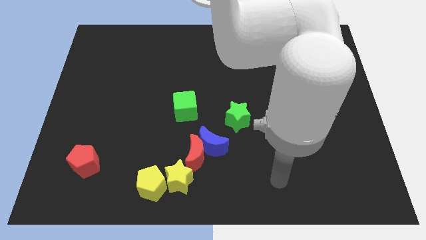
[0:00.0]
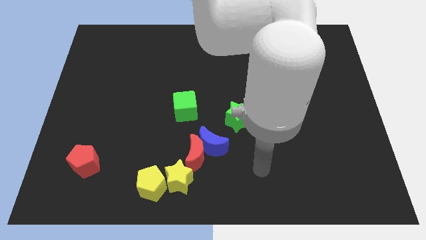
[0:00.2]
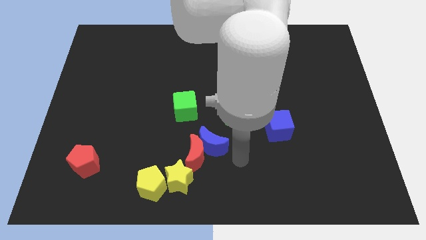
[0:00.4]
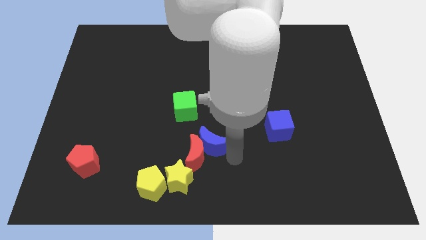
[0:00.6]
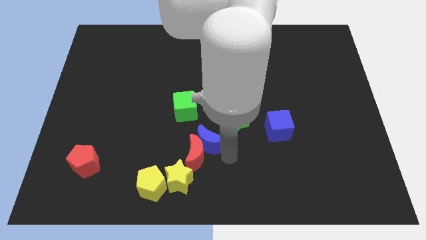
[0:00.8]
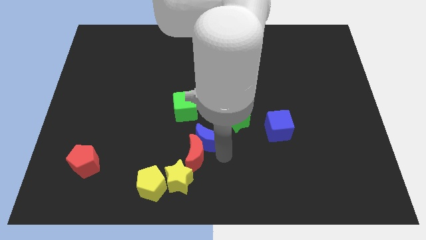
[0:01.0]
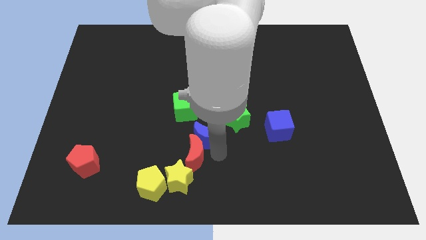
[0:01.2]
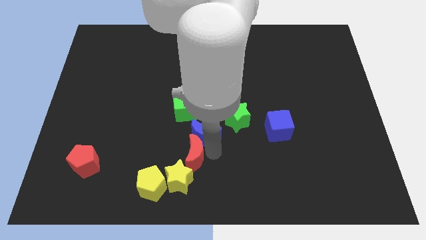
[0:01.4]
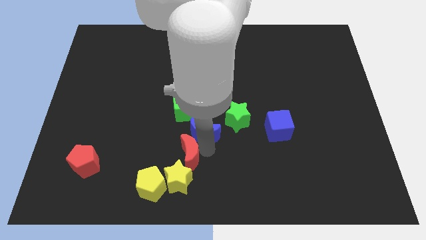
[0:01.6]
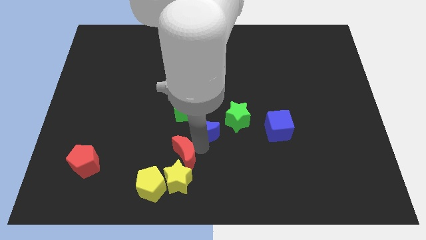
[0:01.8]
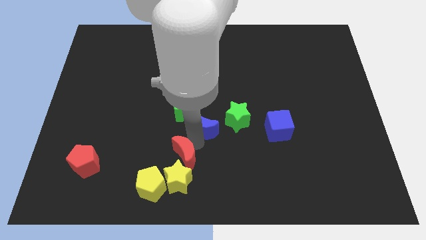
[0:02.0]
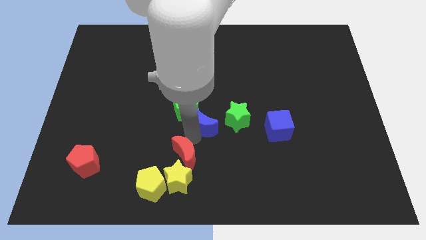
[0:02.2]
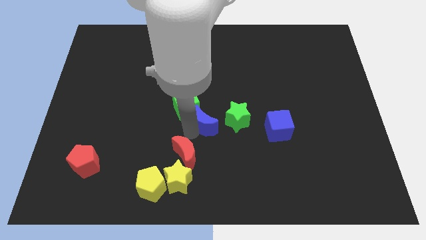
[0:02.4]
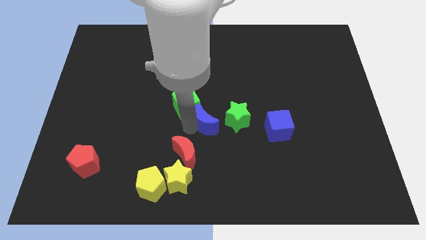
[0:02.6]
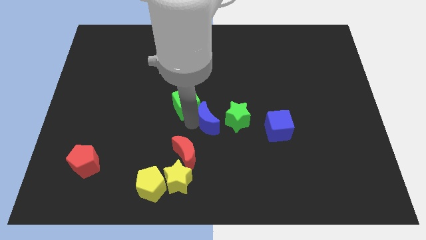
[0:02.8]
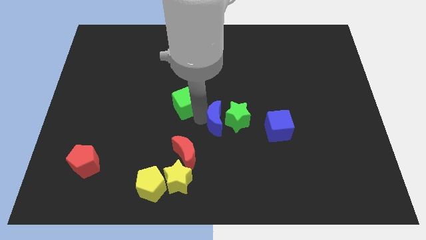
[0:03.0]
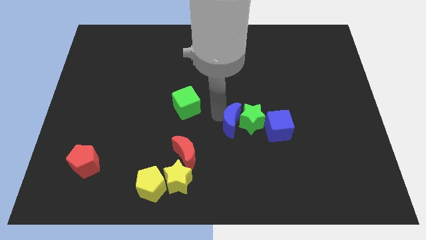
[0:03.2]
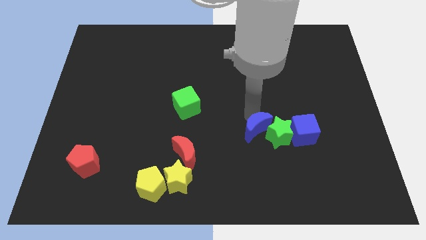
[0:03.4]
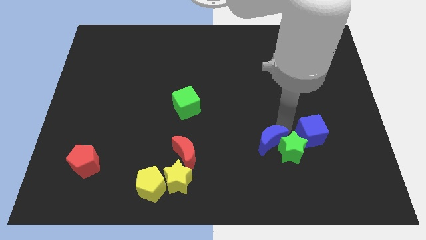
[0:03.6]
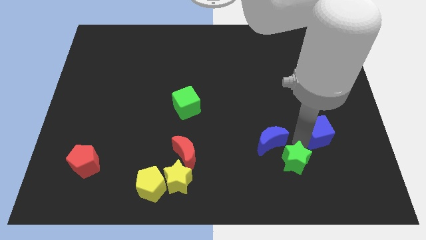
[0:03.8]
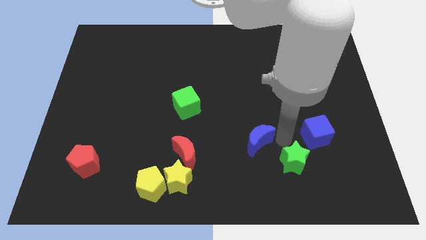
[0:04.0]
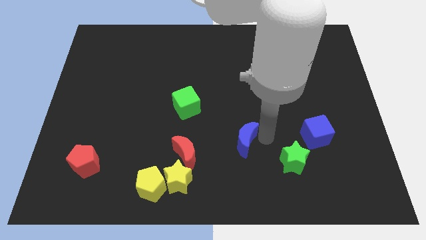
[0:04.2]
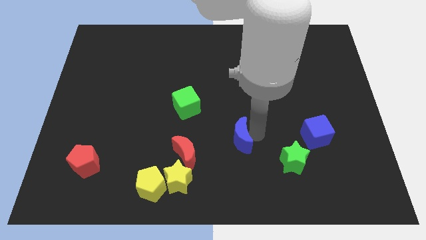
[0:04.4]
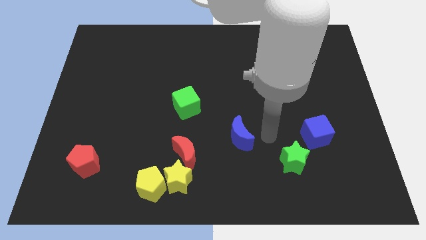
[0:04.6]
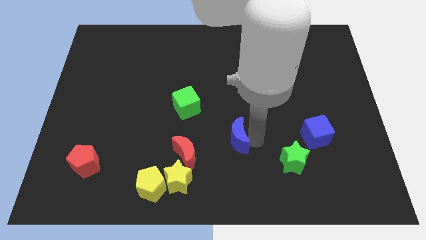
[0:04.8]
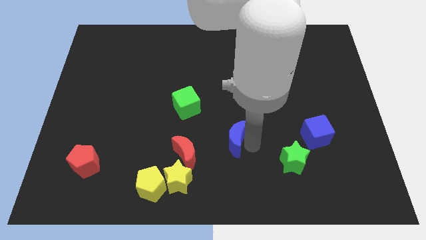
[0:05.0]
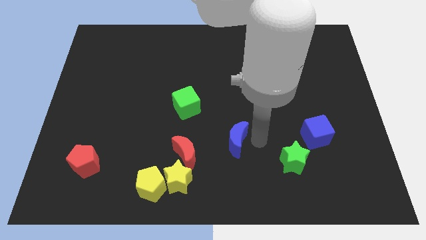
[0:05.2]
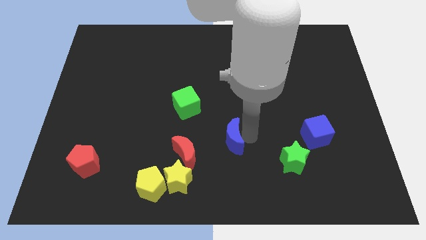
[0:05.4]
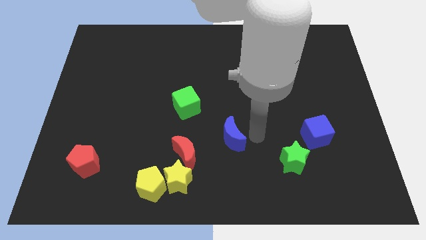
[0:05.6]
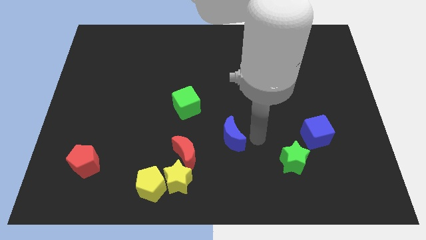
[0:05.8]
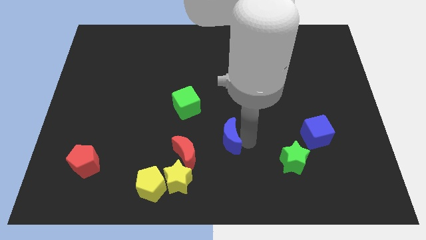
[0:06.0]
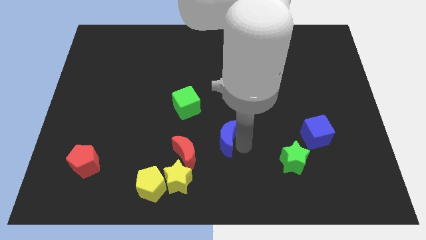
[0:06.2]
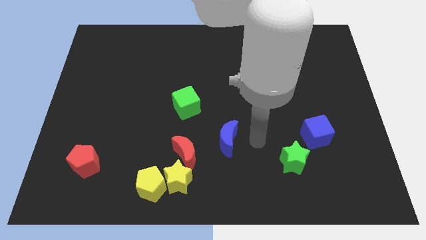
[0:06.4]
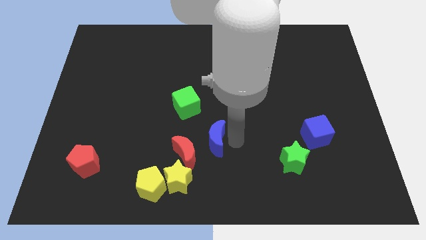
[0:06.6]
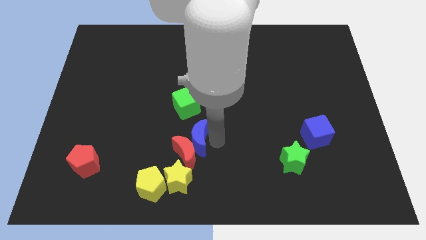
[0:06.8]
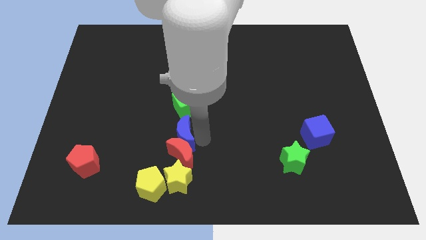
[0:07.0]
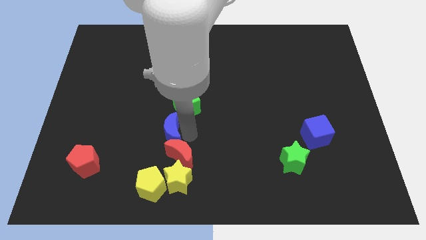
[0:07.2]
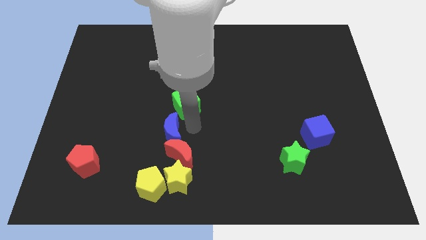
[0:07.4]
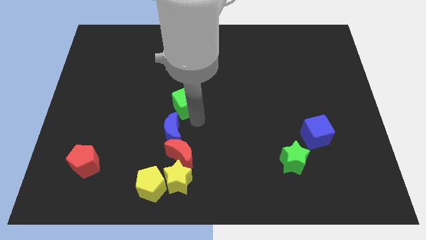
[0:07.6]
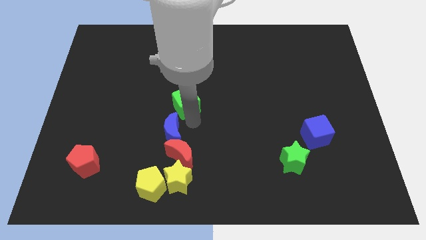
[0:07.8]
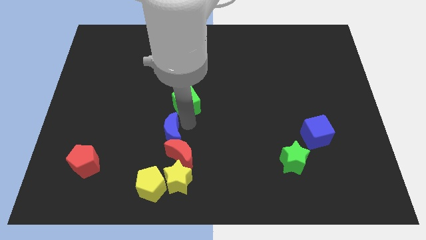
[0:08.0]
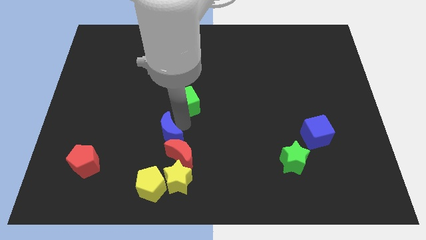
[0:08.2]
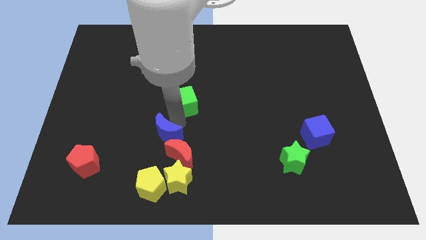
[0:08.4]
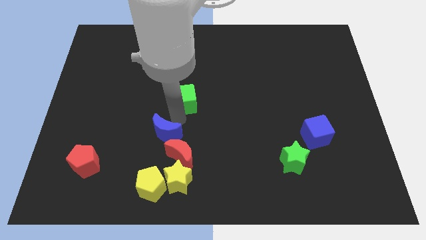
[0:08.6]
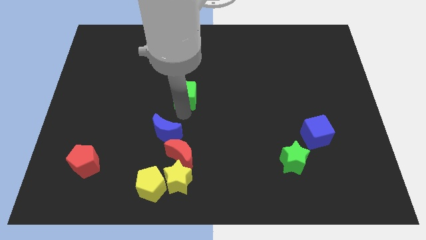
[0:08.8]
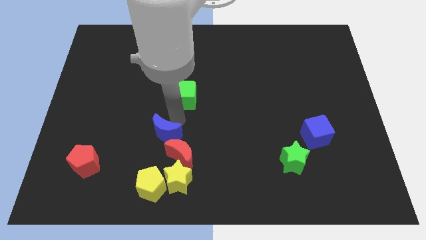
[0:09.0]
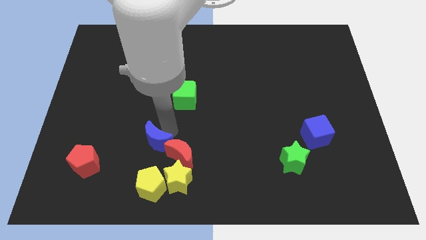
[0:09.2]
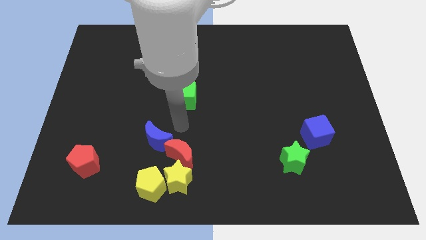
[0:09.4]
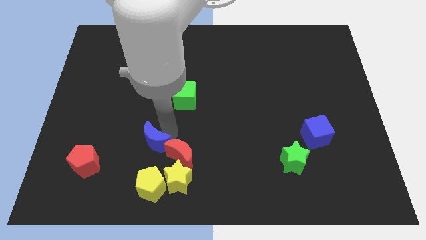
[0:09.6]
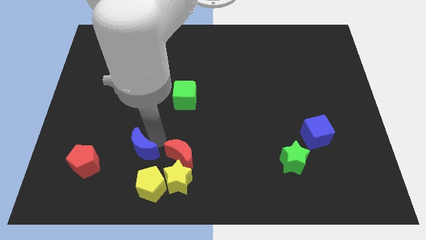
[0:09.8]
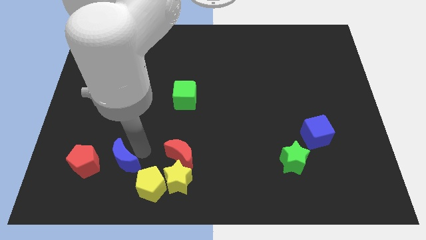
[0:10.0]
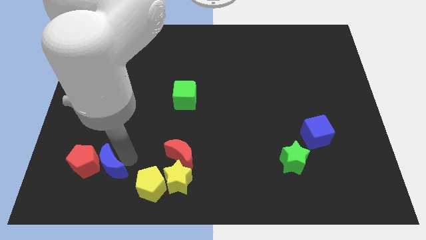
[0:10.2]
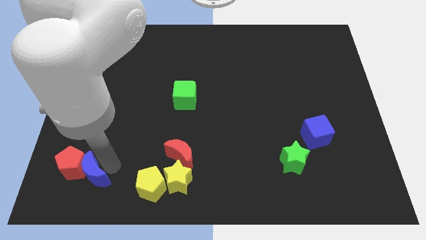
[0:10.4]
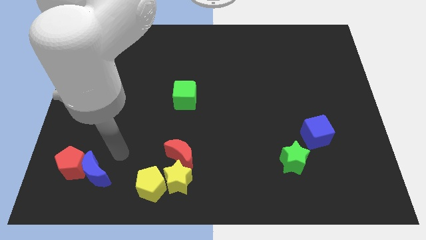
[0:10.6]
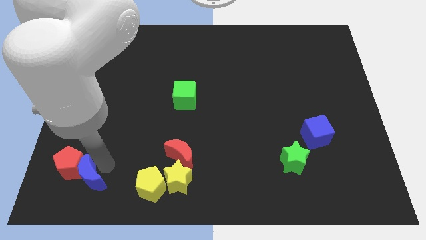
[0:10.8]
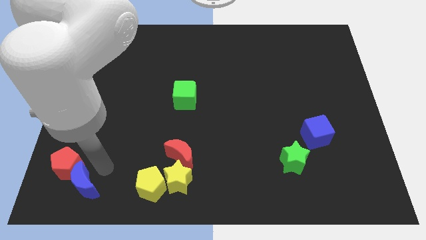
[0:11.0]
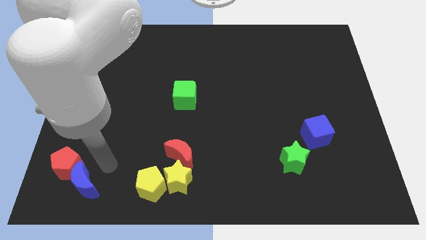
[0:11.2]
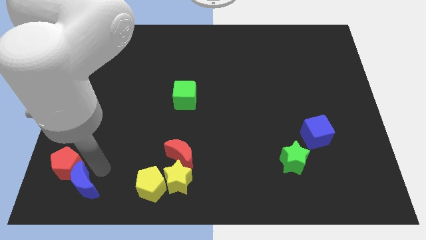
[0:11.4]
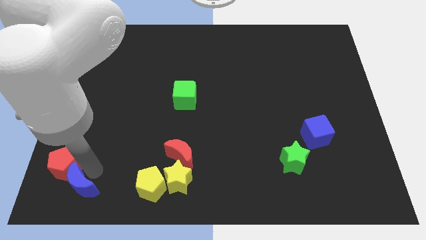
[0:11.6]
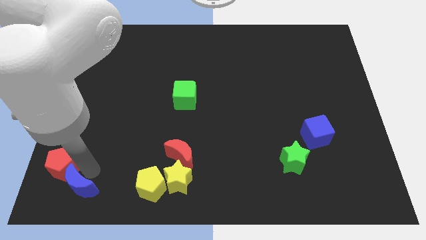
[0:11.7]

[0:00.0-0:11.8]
move the blue moon to the bottom left corner
